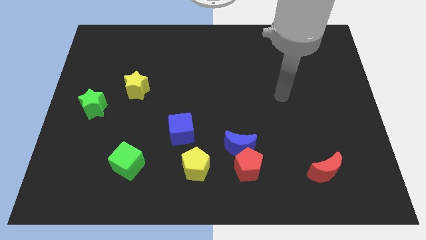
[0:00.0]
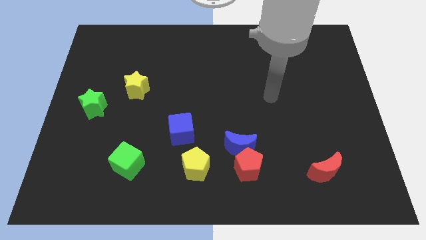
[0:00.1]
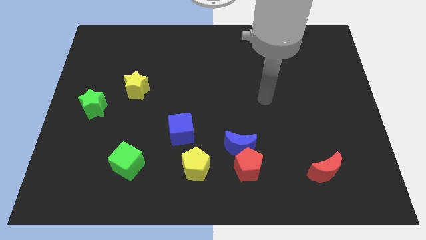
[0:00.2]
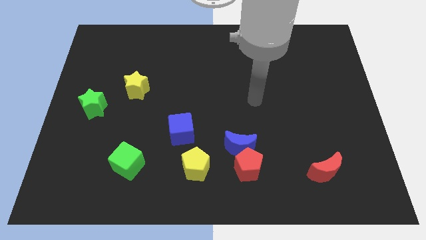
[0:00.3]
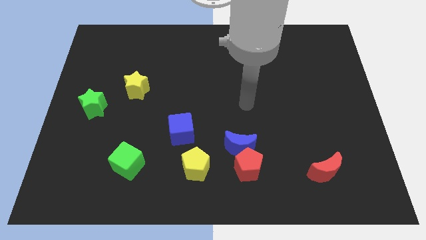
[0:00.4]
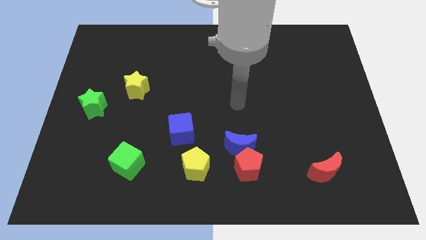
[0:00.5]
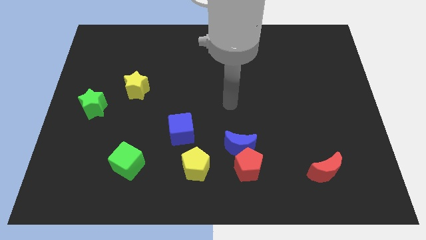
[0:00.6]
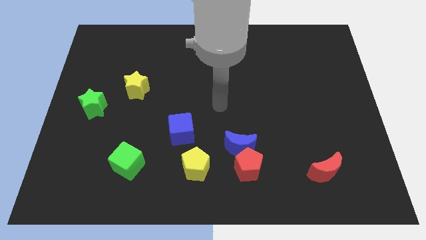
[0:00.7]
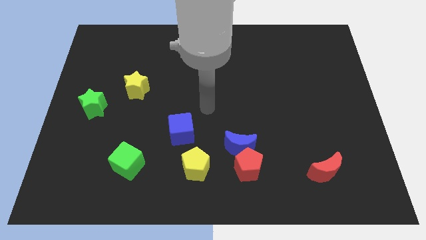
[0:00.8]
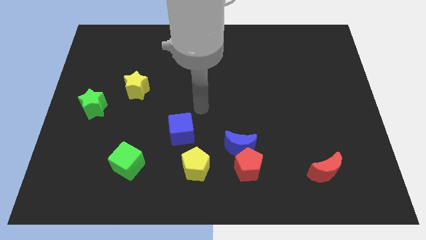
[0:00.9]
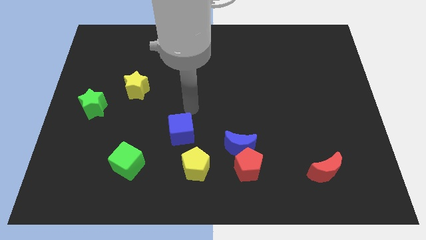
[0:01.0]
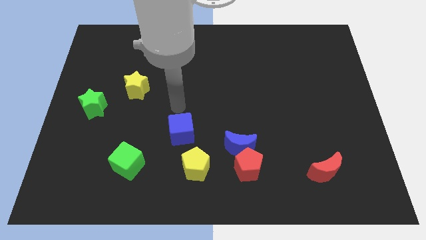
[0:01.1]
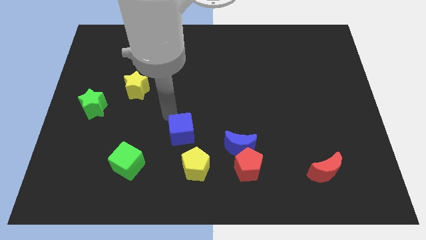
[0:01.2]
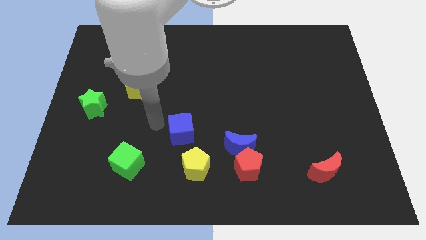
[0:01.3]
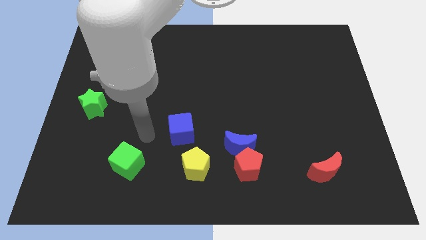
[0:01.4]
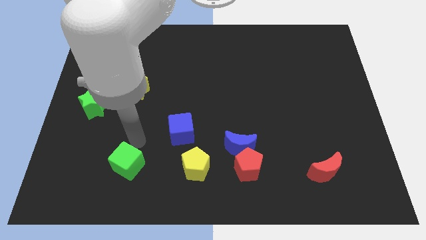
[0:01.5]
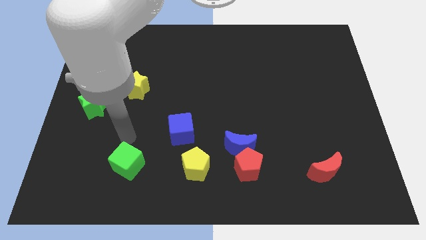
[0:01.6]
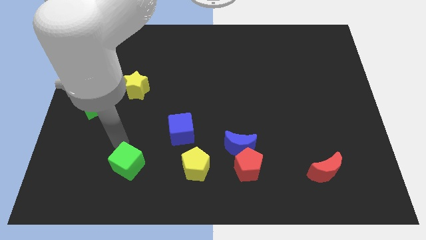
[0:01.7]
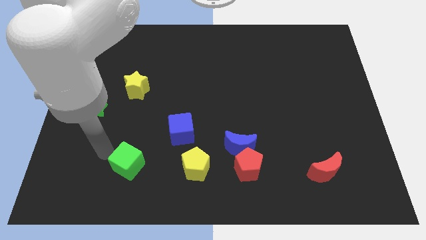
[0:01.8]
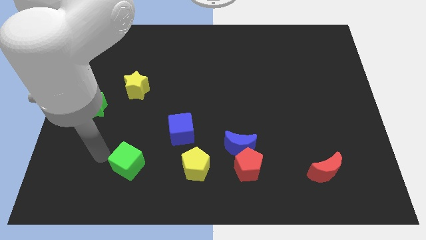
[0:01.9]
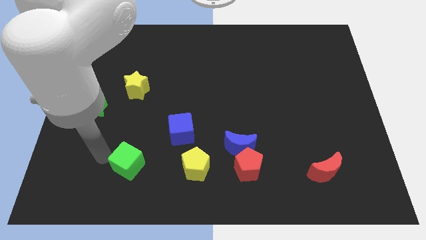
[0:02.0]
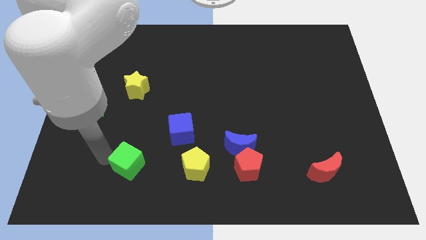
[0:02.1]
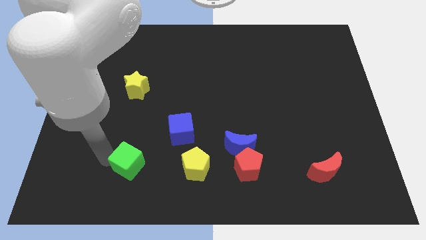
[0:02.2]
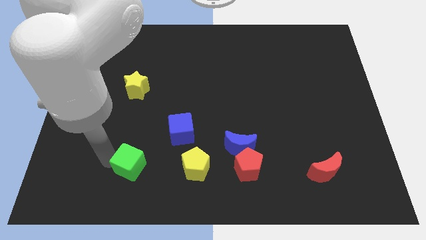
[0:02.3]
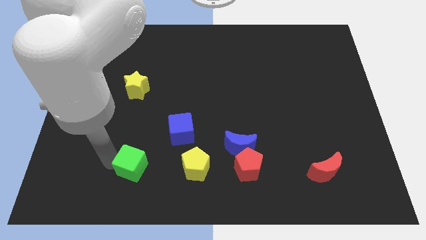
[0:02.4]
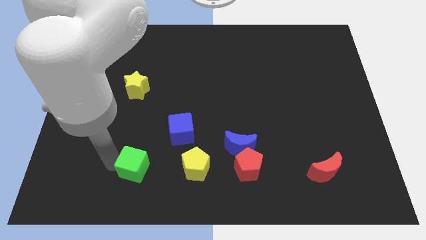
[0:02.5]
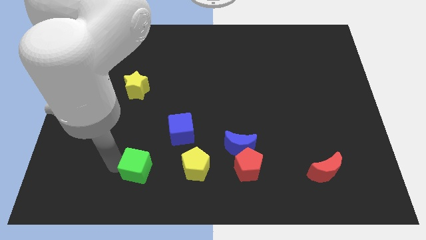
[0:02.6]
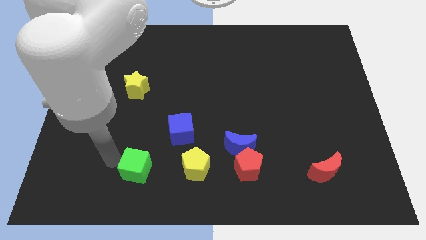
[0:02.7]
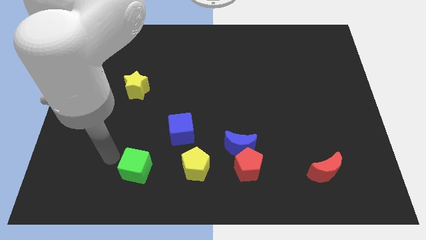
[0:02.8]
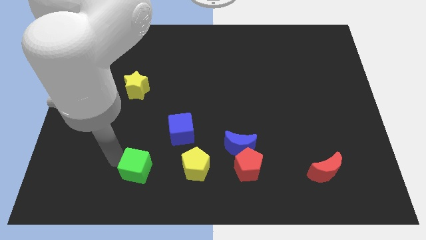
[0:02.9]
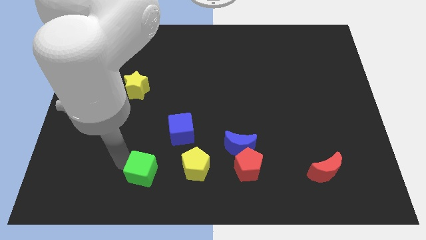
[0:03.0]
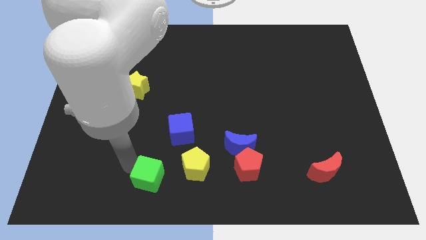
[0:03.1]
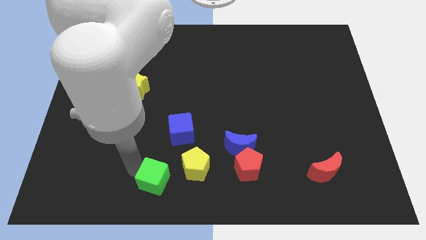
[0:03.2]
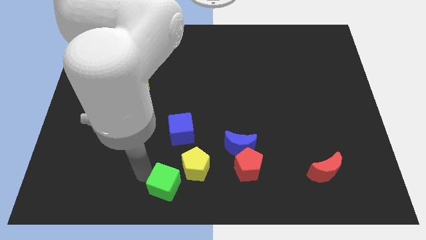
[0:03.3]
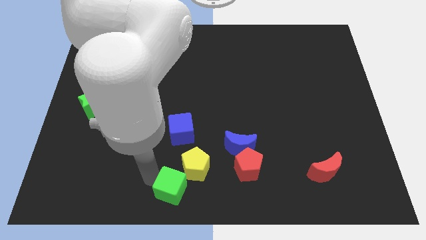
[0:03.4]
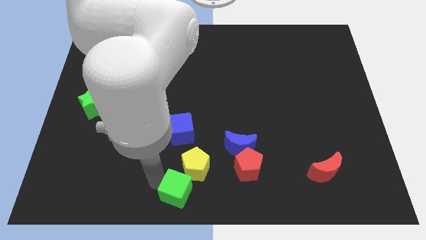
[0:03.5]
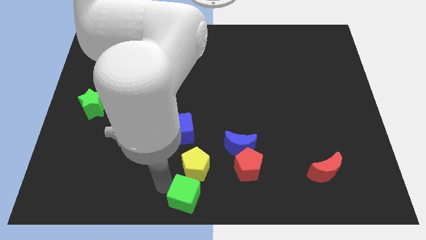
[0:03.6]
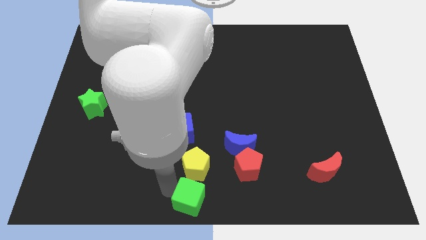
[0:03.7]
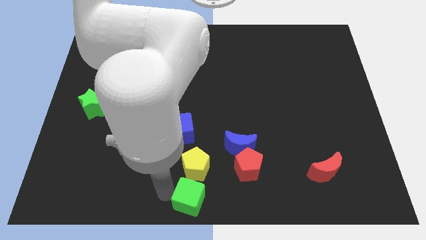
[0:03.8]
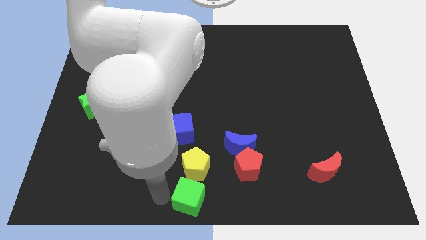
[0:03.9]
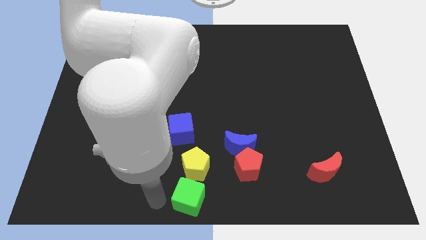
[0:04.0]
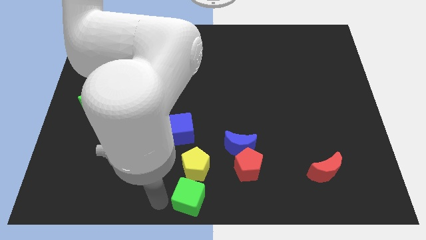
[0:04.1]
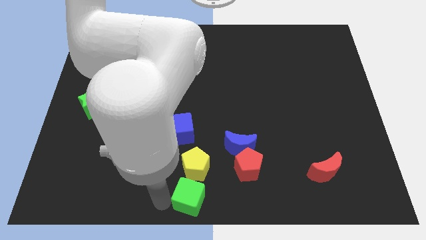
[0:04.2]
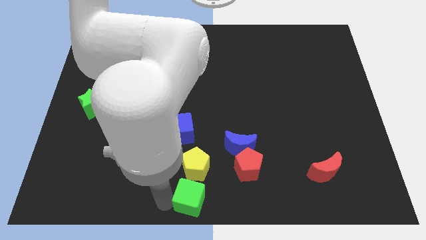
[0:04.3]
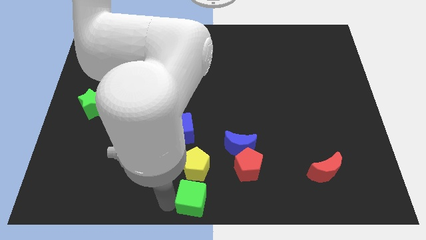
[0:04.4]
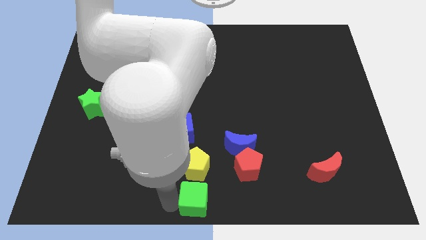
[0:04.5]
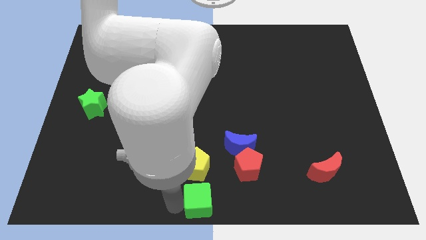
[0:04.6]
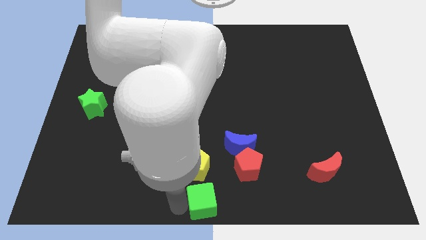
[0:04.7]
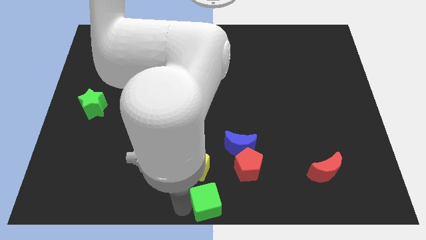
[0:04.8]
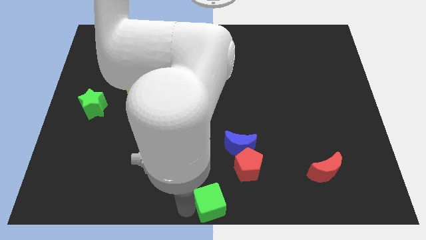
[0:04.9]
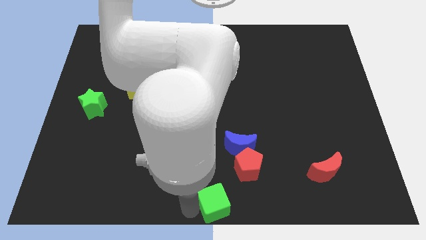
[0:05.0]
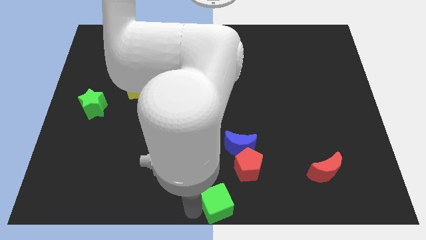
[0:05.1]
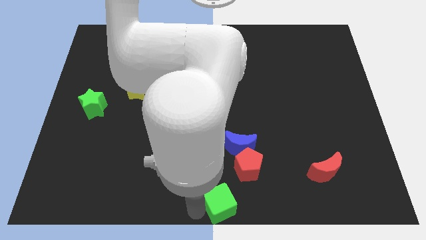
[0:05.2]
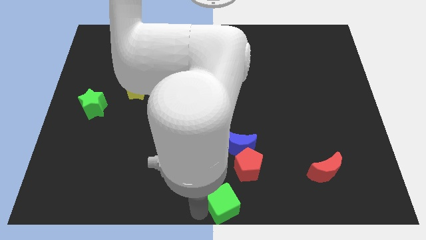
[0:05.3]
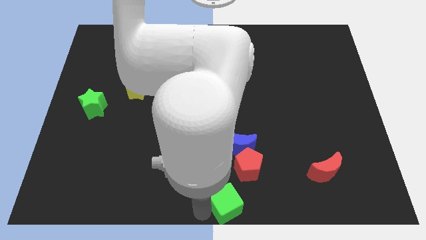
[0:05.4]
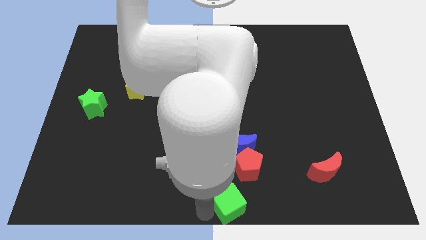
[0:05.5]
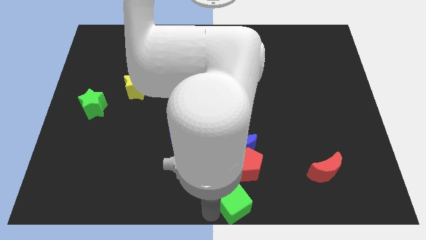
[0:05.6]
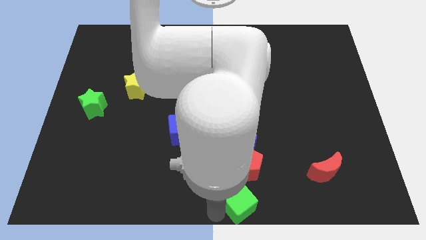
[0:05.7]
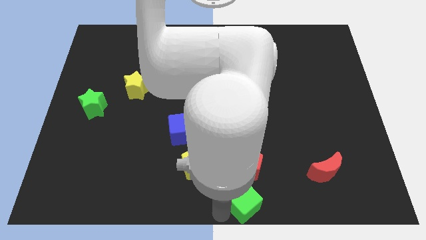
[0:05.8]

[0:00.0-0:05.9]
move the green cube to the right

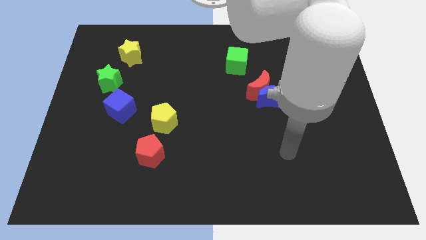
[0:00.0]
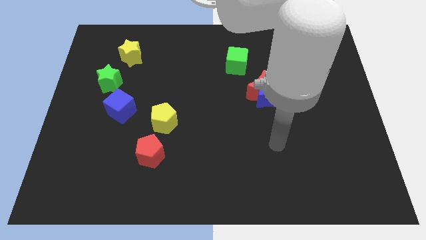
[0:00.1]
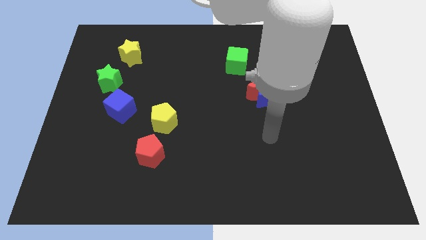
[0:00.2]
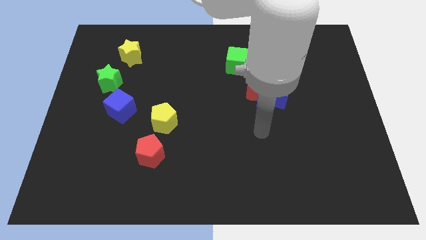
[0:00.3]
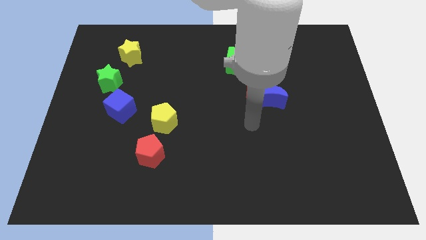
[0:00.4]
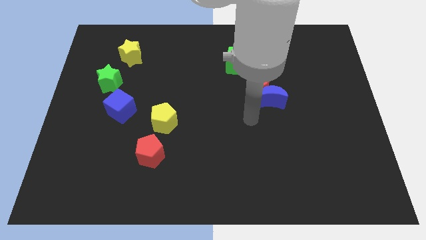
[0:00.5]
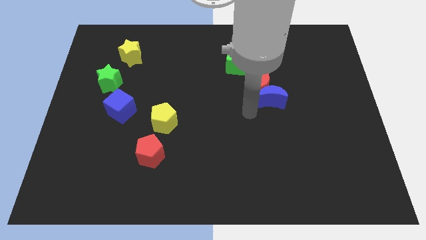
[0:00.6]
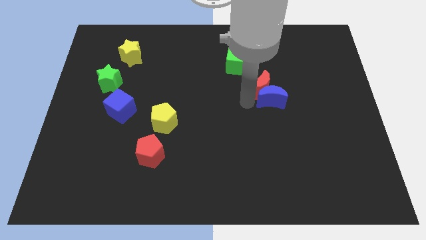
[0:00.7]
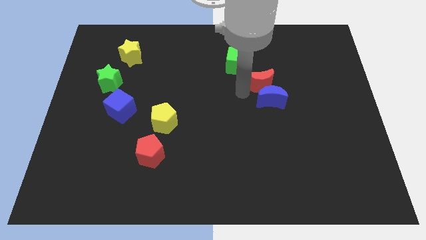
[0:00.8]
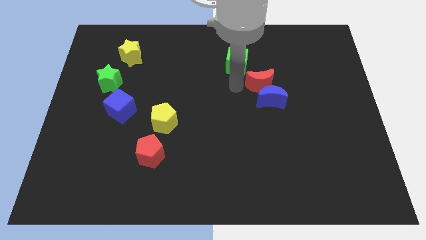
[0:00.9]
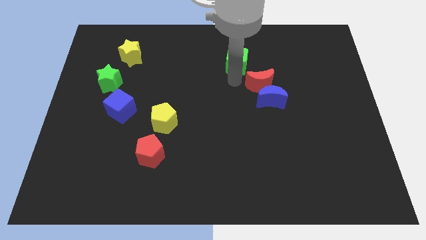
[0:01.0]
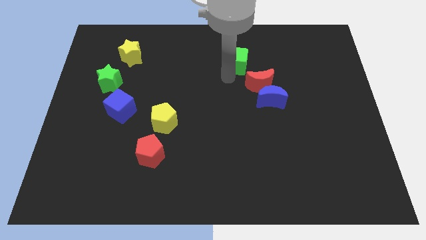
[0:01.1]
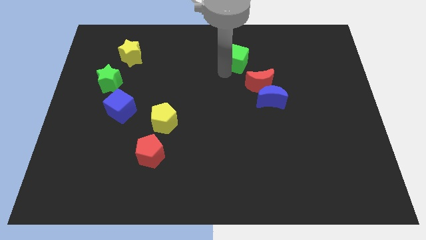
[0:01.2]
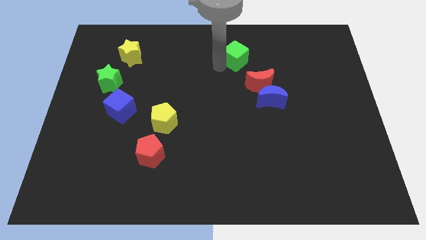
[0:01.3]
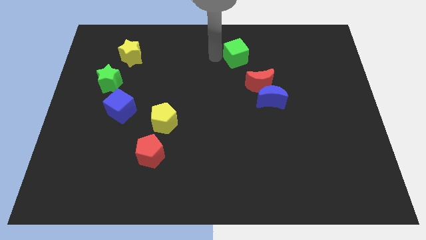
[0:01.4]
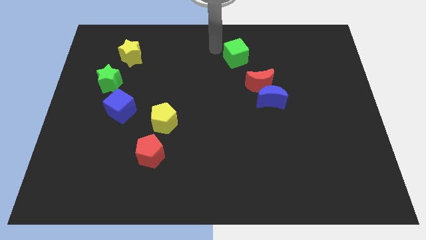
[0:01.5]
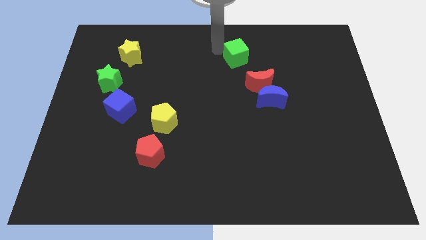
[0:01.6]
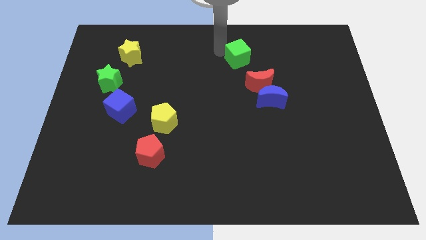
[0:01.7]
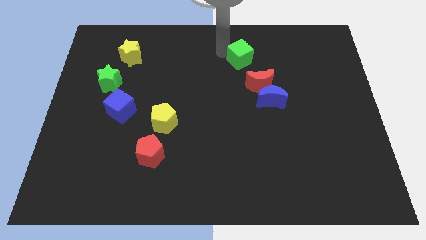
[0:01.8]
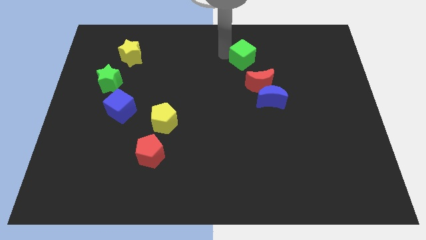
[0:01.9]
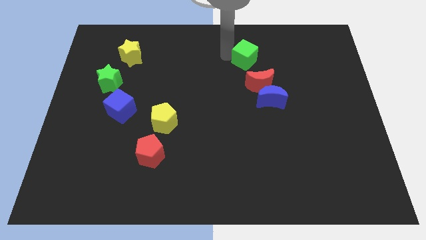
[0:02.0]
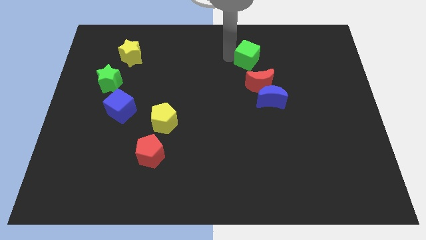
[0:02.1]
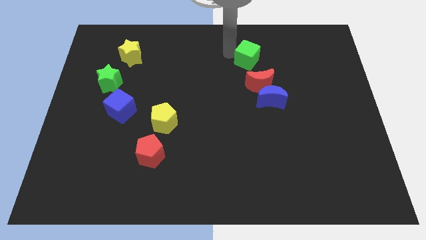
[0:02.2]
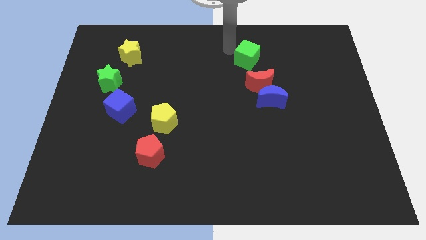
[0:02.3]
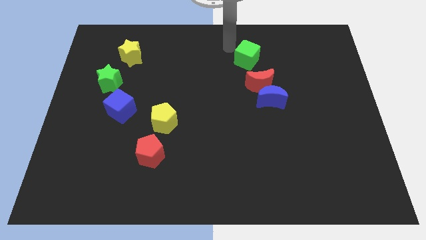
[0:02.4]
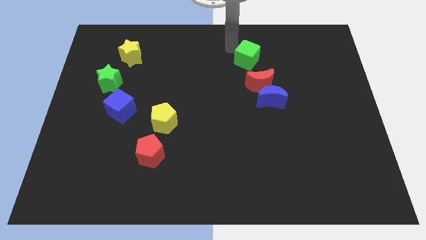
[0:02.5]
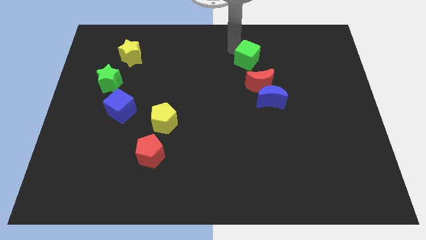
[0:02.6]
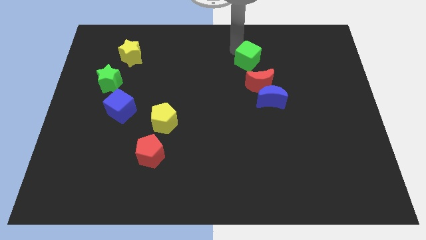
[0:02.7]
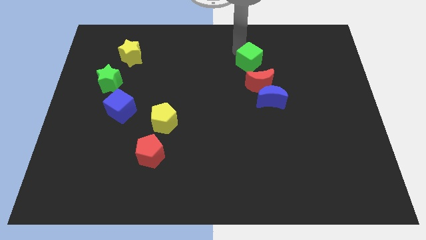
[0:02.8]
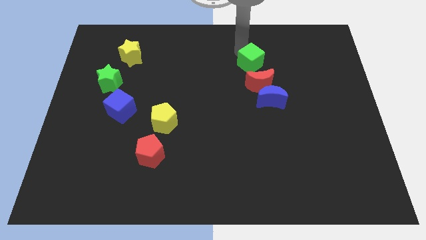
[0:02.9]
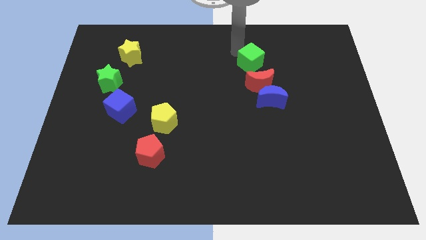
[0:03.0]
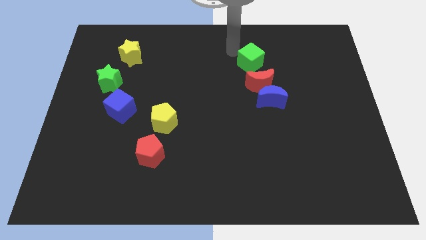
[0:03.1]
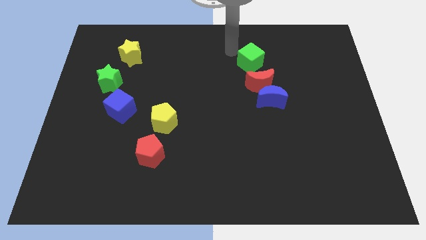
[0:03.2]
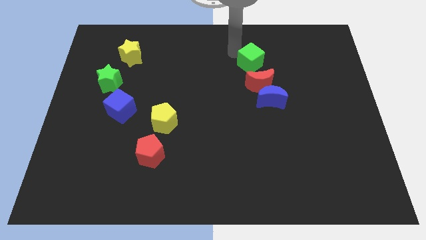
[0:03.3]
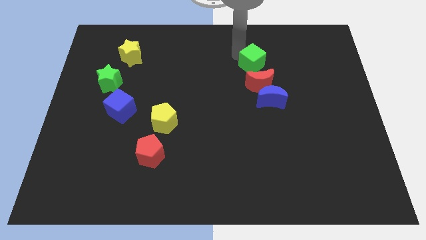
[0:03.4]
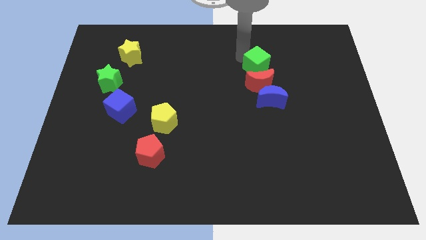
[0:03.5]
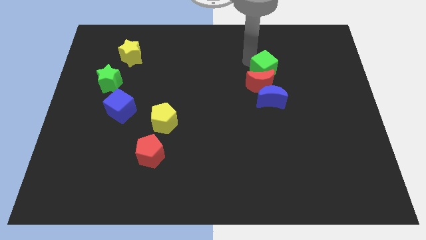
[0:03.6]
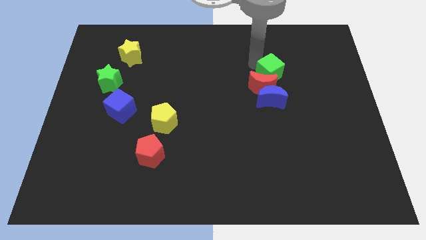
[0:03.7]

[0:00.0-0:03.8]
push the green cube slightly downwards and then right
